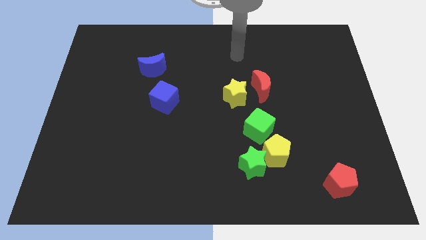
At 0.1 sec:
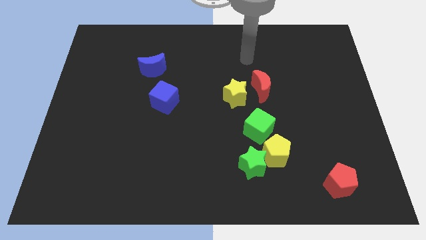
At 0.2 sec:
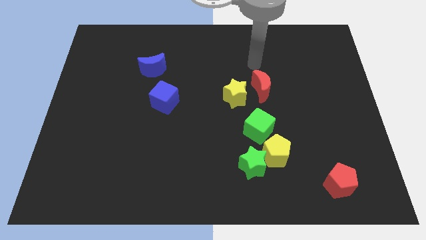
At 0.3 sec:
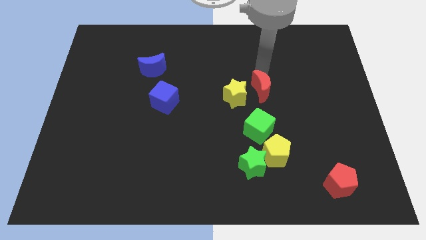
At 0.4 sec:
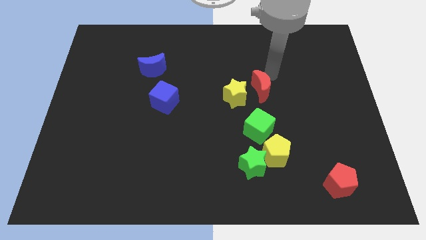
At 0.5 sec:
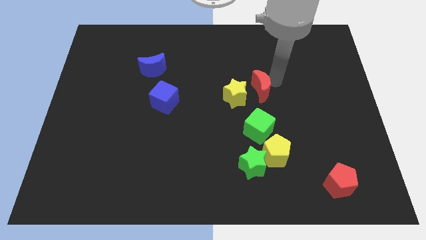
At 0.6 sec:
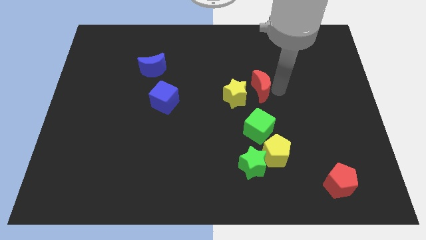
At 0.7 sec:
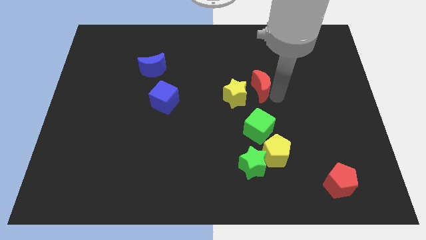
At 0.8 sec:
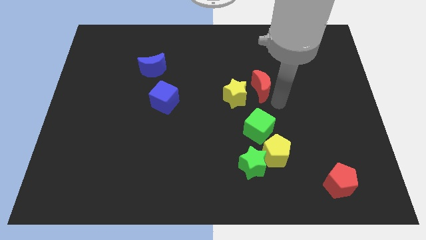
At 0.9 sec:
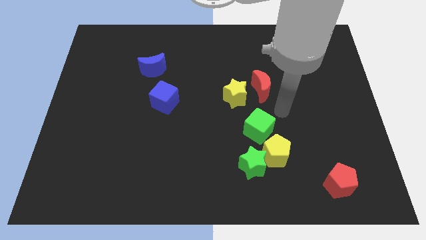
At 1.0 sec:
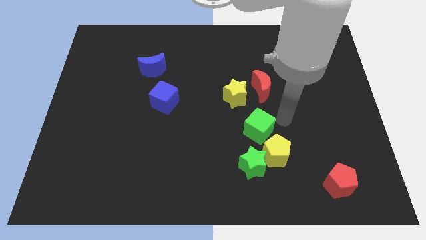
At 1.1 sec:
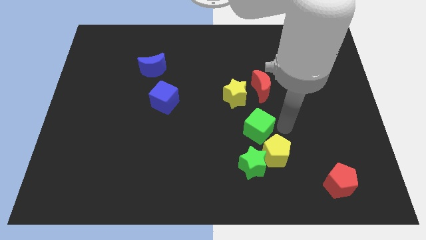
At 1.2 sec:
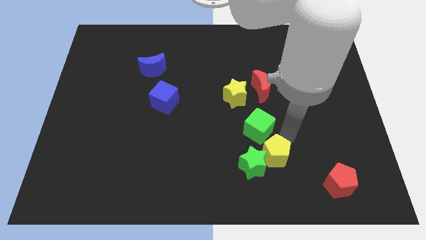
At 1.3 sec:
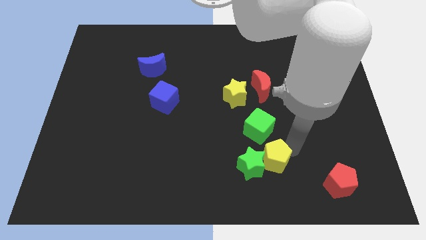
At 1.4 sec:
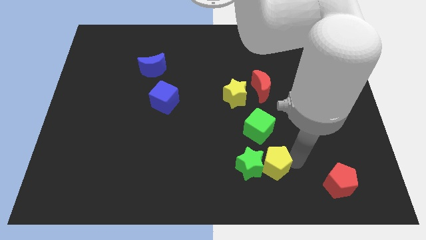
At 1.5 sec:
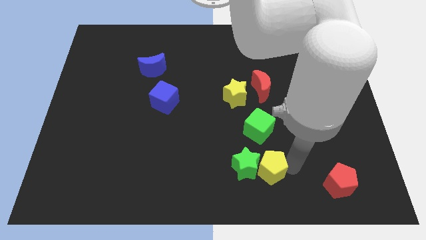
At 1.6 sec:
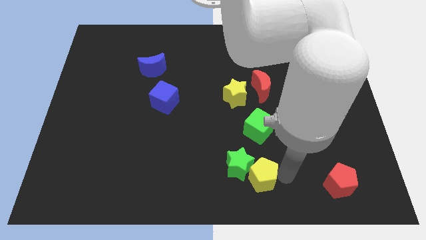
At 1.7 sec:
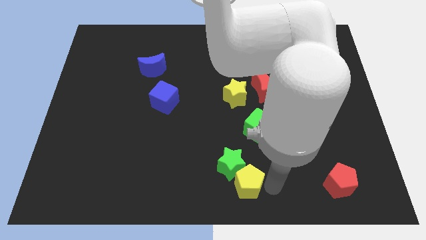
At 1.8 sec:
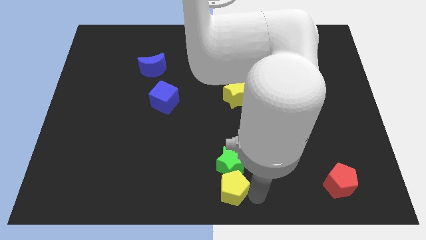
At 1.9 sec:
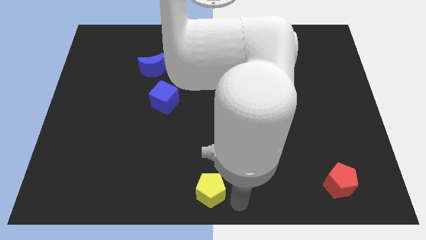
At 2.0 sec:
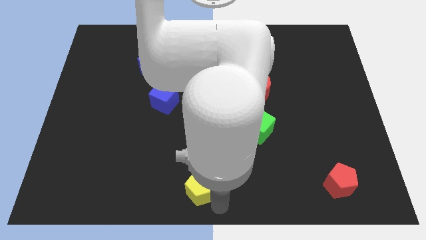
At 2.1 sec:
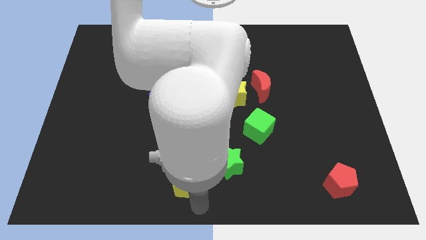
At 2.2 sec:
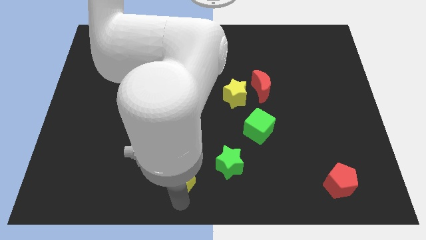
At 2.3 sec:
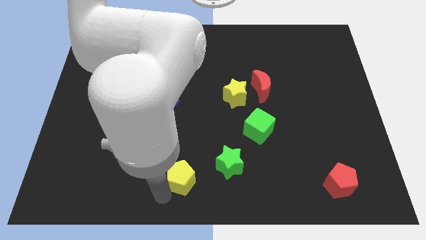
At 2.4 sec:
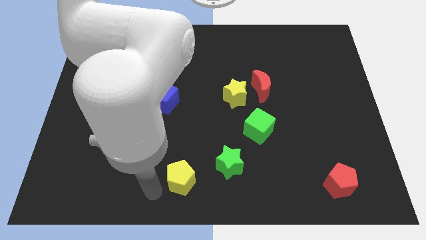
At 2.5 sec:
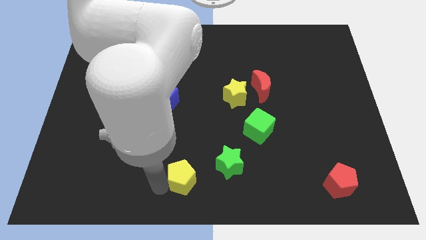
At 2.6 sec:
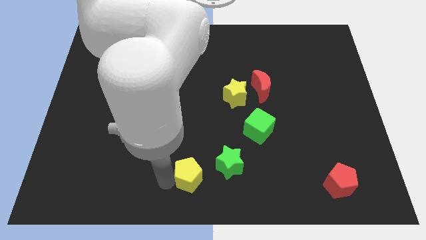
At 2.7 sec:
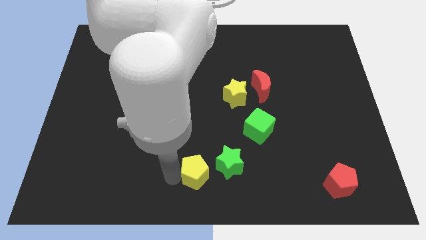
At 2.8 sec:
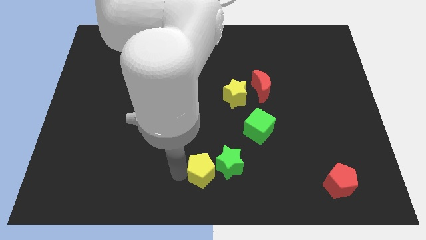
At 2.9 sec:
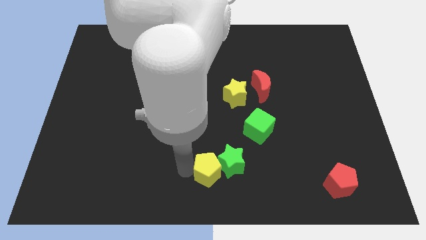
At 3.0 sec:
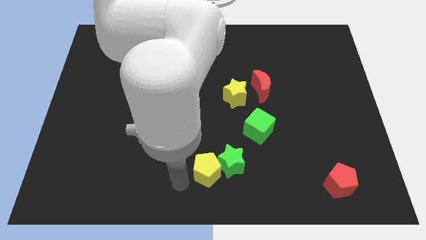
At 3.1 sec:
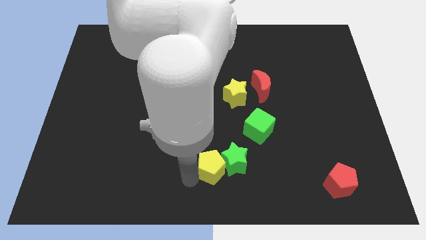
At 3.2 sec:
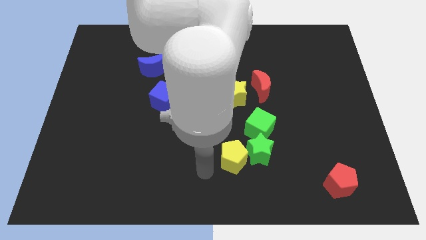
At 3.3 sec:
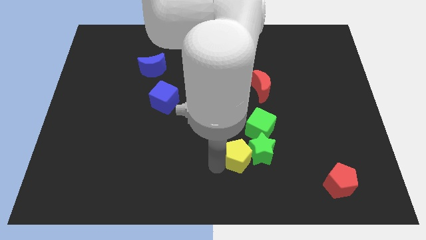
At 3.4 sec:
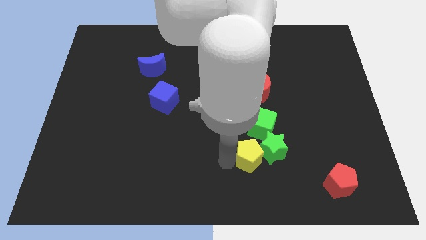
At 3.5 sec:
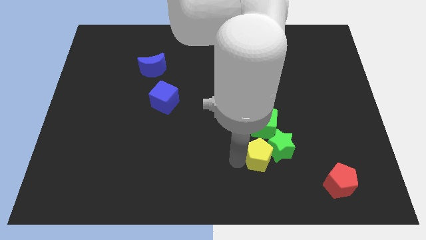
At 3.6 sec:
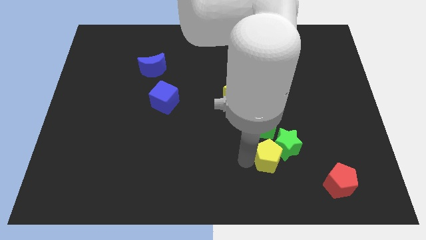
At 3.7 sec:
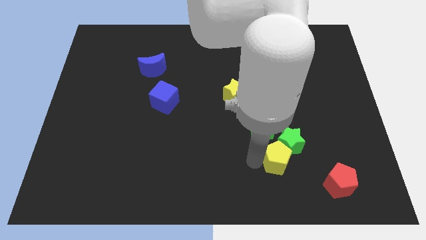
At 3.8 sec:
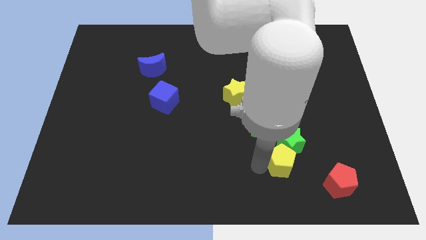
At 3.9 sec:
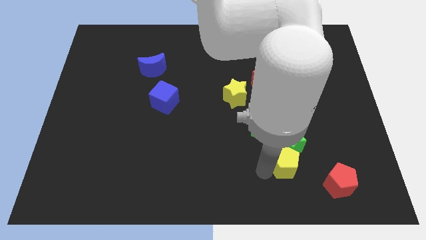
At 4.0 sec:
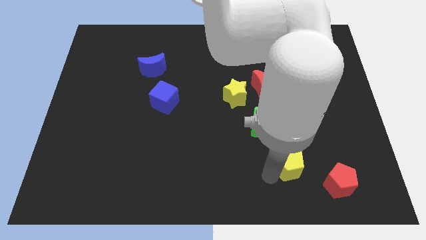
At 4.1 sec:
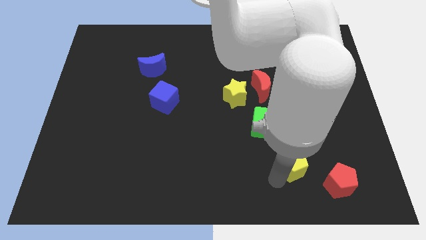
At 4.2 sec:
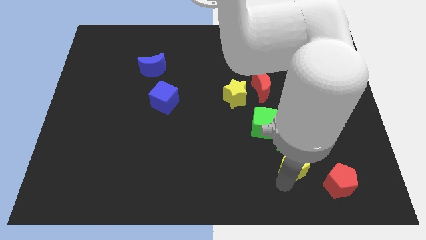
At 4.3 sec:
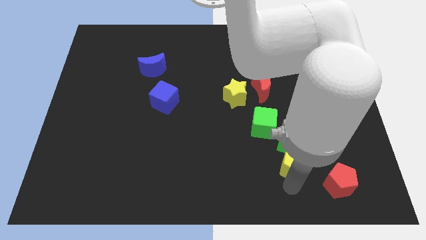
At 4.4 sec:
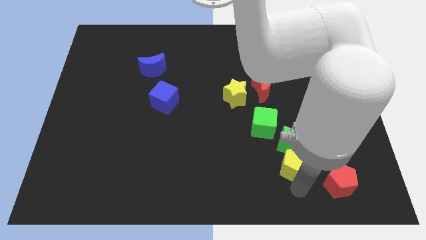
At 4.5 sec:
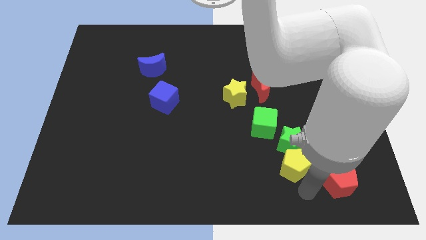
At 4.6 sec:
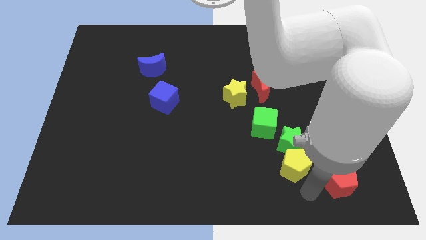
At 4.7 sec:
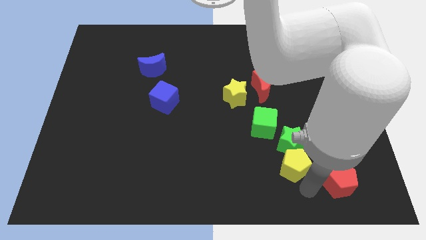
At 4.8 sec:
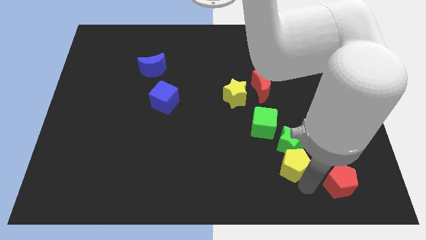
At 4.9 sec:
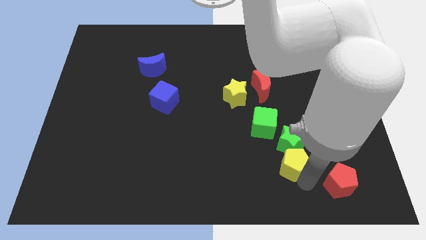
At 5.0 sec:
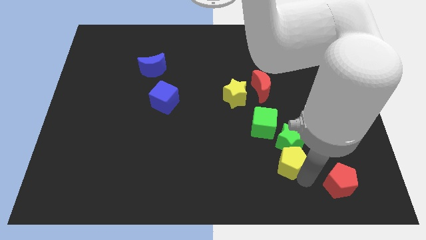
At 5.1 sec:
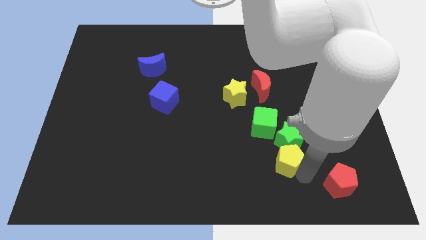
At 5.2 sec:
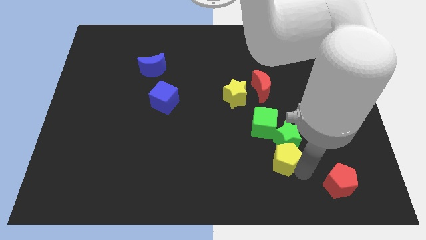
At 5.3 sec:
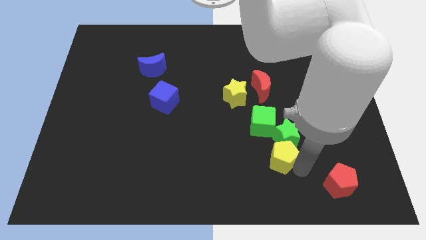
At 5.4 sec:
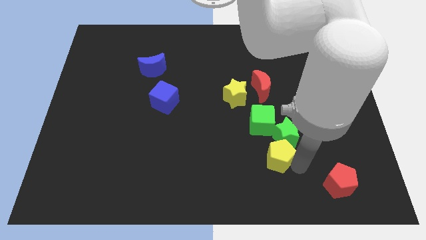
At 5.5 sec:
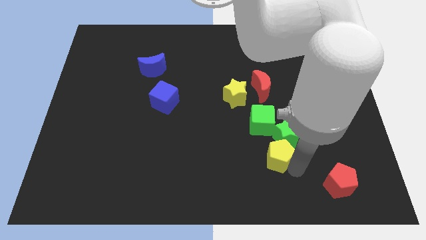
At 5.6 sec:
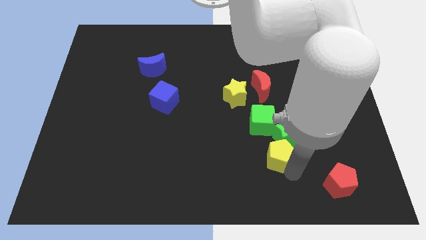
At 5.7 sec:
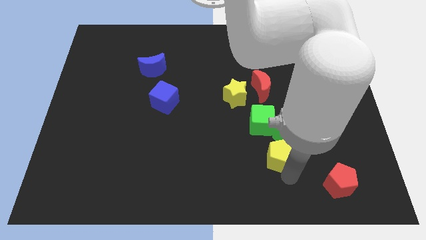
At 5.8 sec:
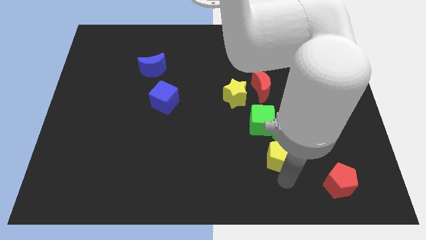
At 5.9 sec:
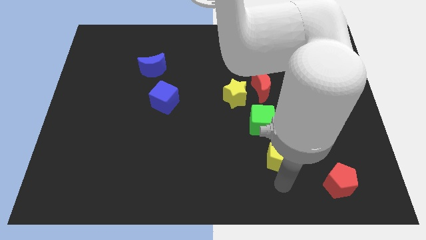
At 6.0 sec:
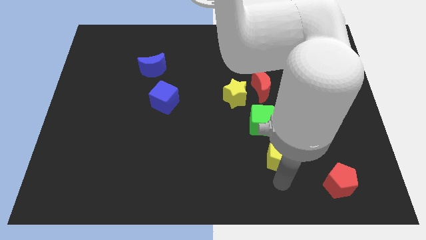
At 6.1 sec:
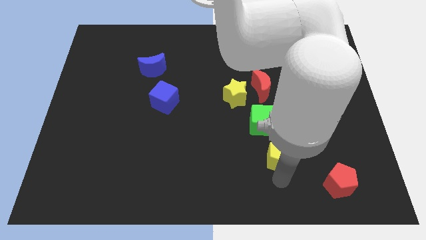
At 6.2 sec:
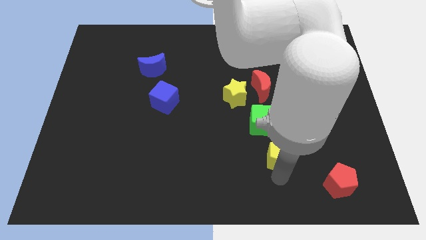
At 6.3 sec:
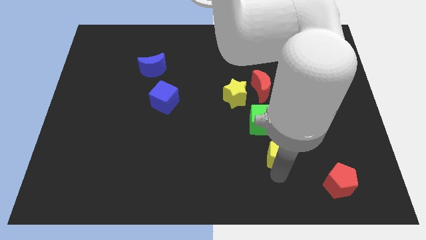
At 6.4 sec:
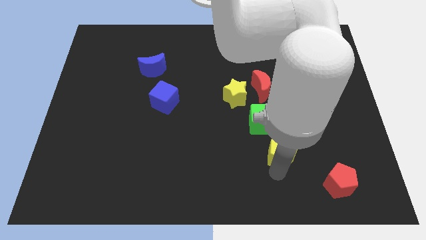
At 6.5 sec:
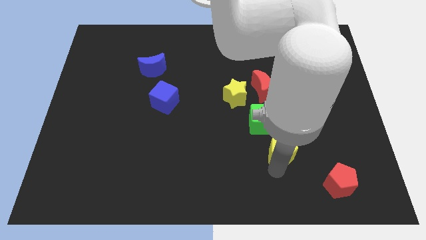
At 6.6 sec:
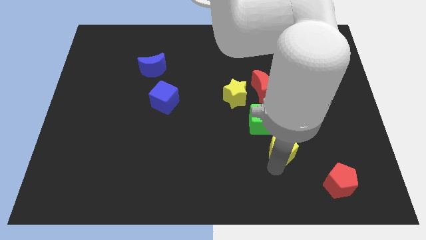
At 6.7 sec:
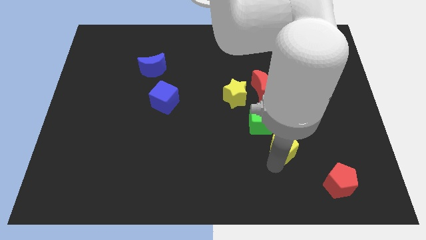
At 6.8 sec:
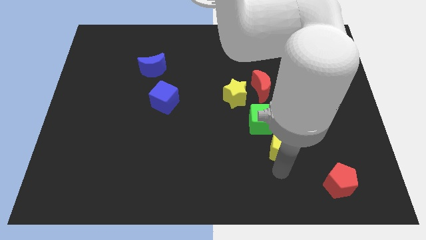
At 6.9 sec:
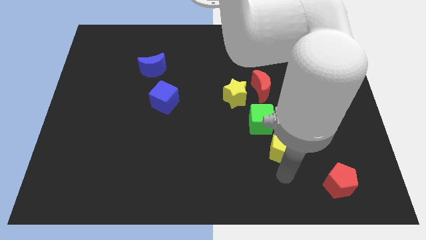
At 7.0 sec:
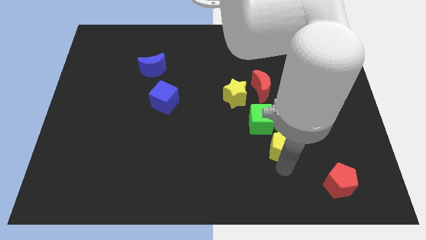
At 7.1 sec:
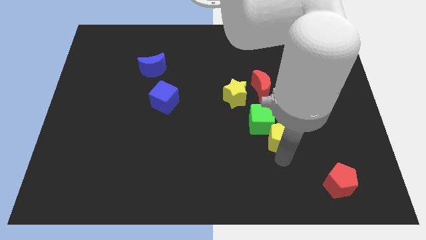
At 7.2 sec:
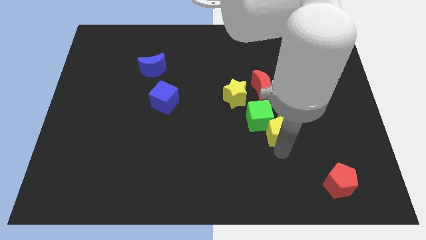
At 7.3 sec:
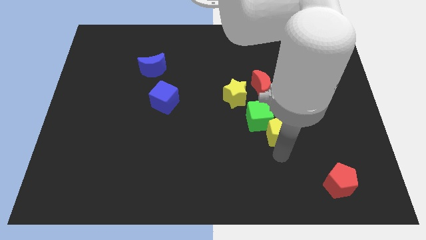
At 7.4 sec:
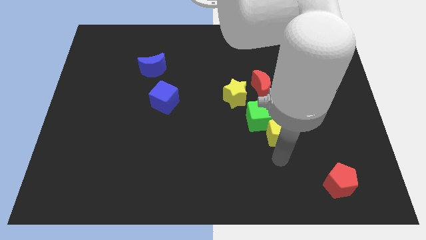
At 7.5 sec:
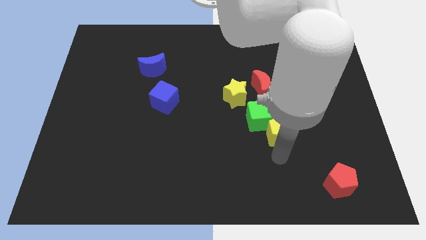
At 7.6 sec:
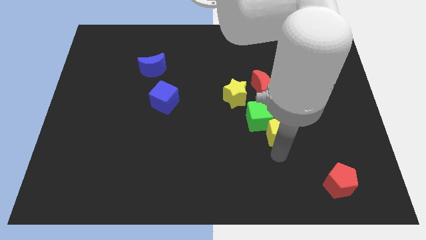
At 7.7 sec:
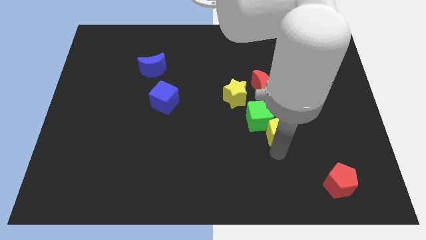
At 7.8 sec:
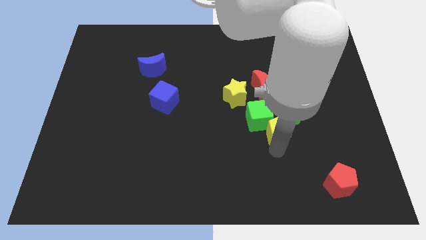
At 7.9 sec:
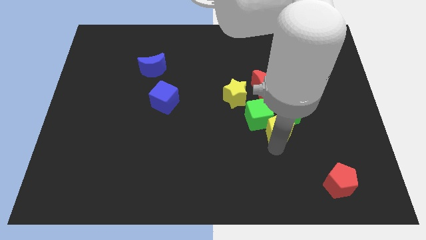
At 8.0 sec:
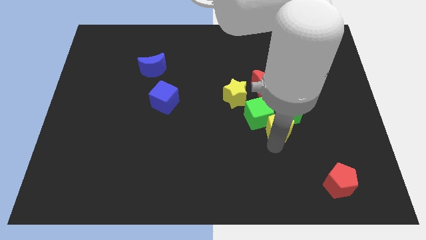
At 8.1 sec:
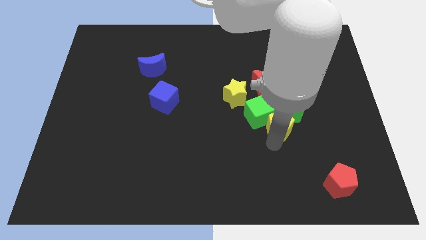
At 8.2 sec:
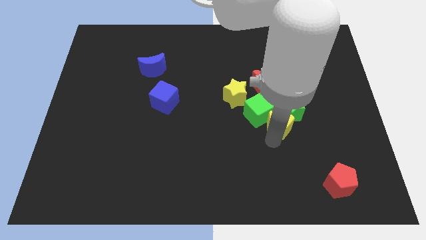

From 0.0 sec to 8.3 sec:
put the yellow pentagon diagonally down and to the right of the yellow star
